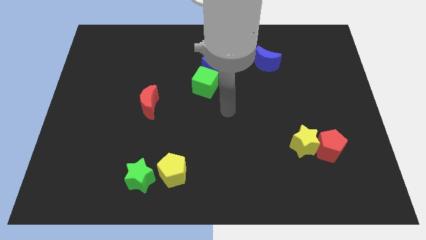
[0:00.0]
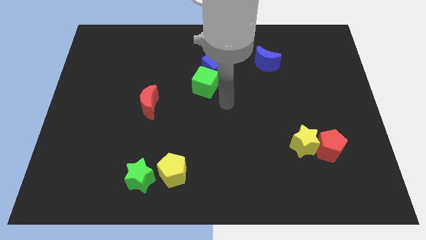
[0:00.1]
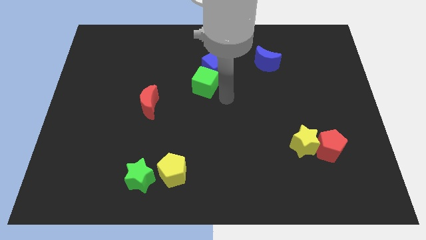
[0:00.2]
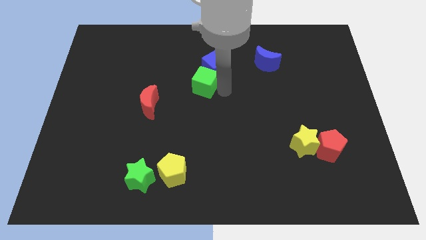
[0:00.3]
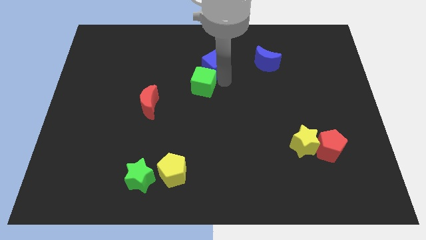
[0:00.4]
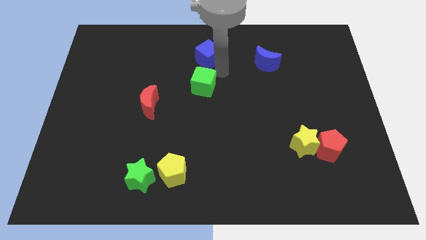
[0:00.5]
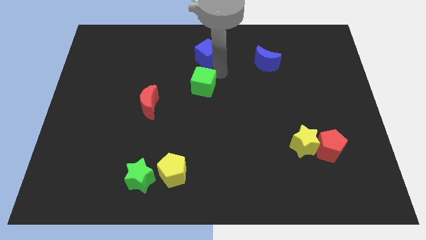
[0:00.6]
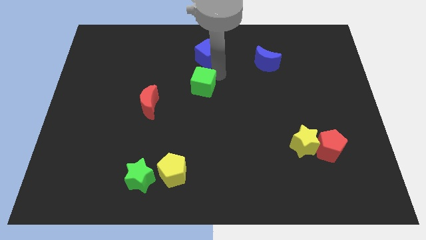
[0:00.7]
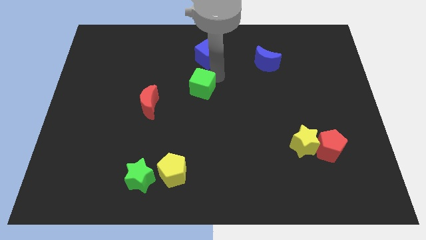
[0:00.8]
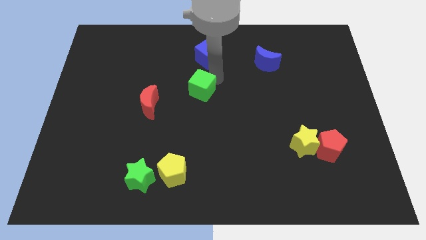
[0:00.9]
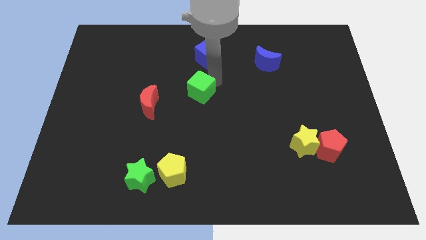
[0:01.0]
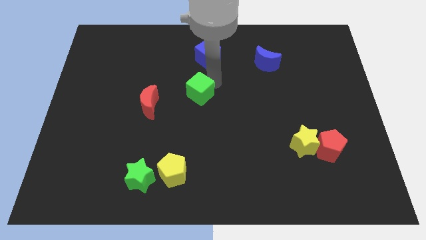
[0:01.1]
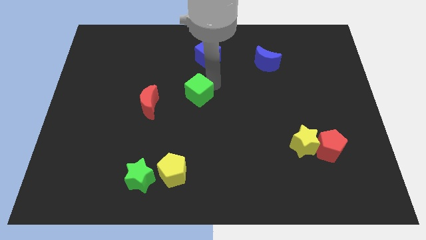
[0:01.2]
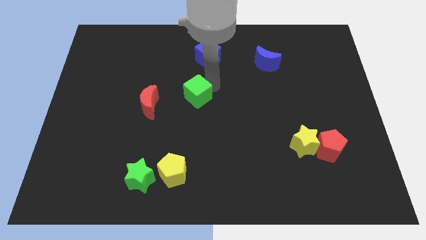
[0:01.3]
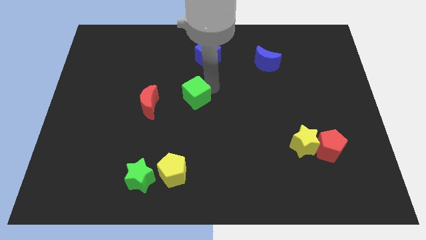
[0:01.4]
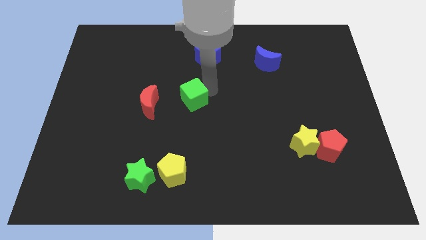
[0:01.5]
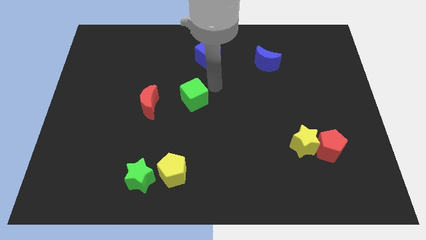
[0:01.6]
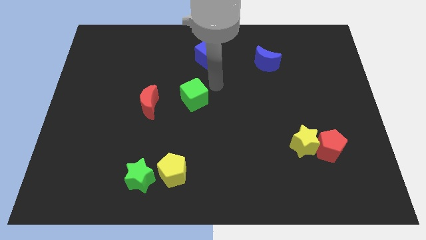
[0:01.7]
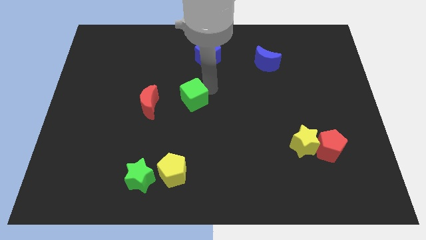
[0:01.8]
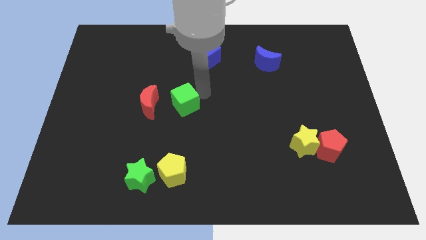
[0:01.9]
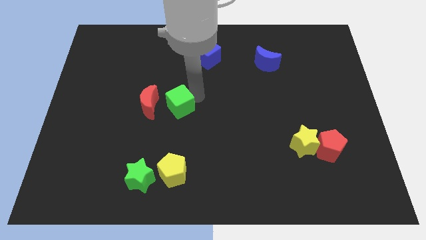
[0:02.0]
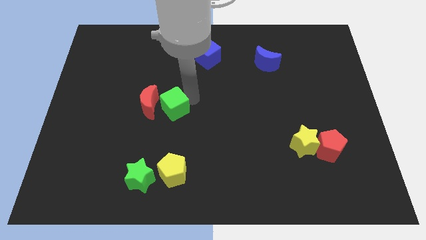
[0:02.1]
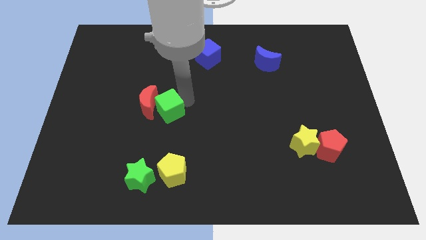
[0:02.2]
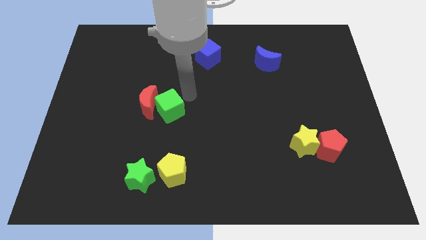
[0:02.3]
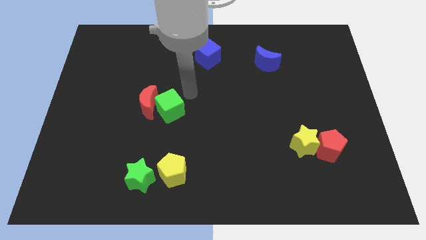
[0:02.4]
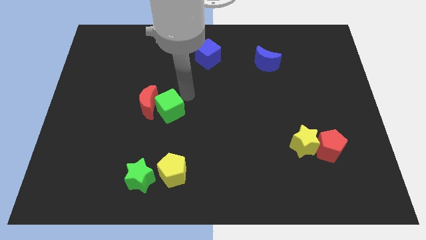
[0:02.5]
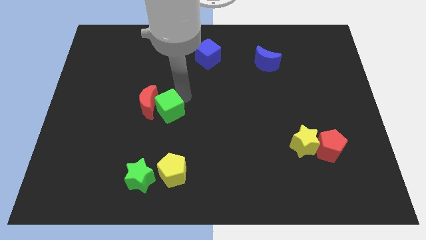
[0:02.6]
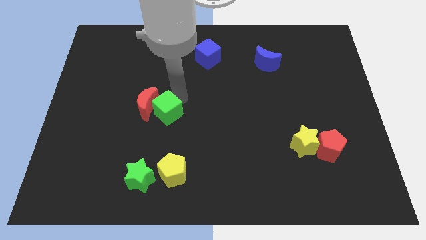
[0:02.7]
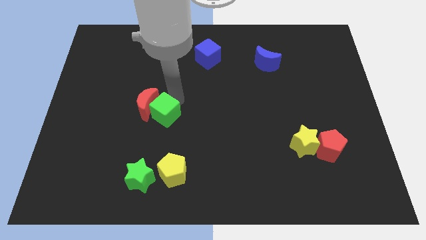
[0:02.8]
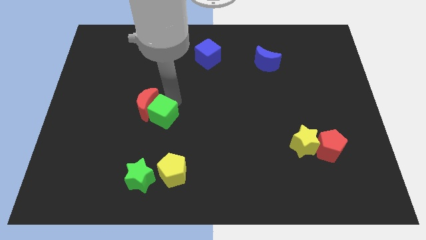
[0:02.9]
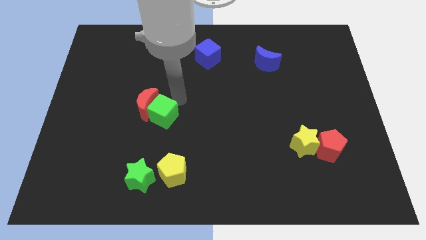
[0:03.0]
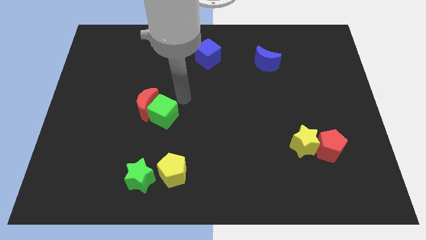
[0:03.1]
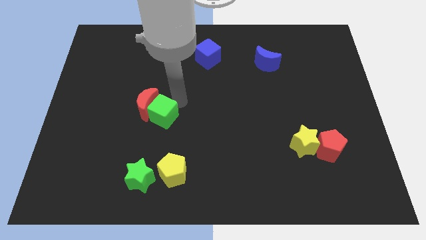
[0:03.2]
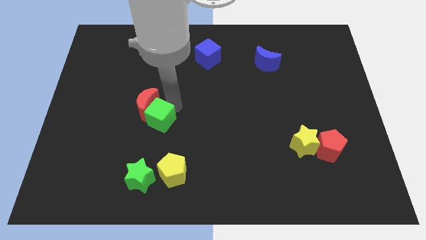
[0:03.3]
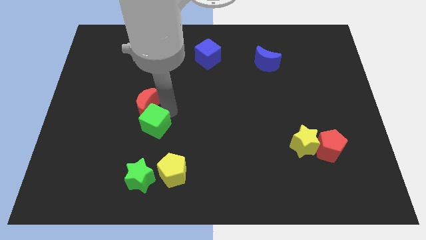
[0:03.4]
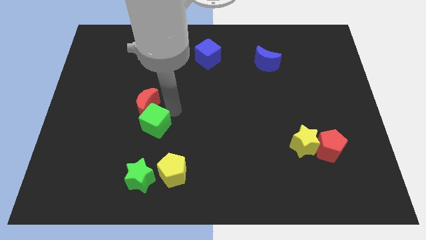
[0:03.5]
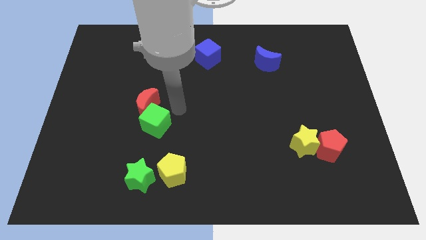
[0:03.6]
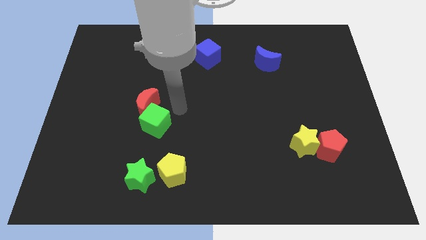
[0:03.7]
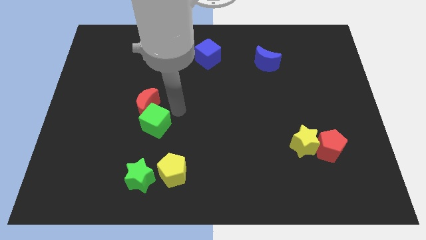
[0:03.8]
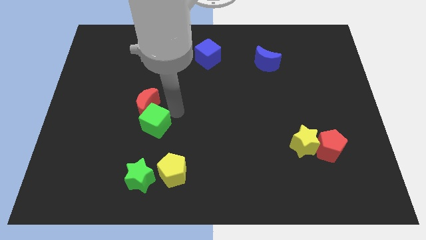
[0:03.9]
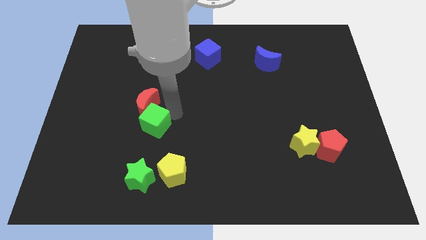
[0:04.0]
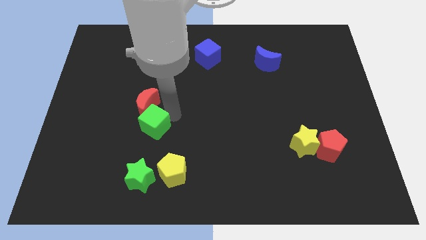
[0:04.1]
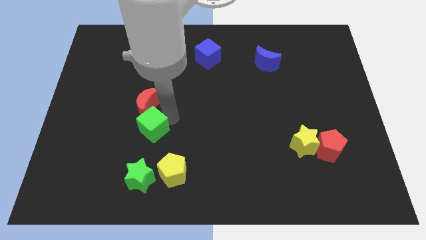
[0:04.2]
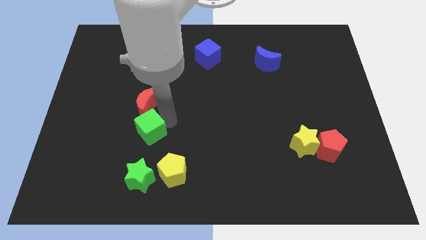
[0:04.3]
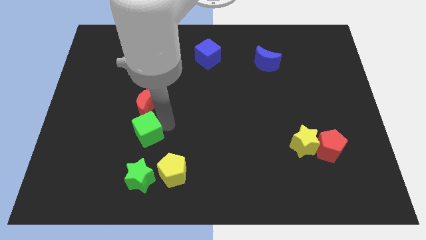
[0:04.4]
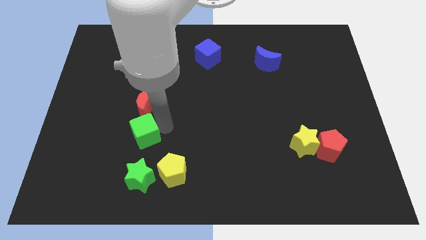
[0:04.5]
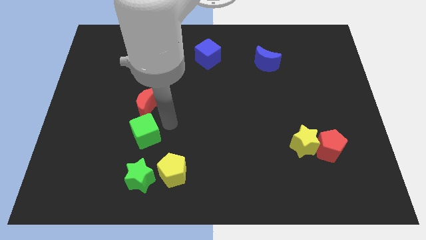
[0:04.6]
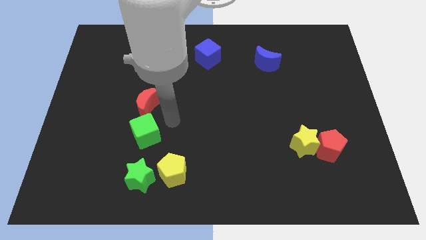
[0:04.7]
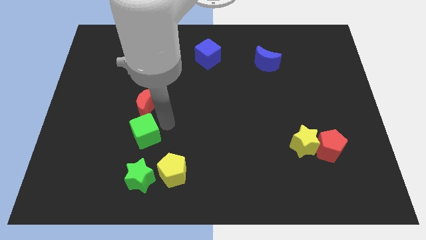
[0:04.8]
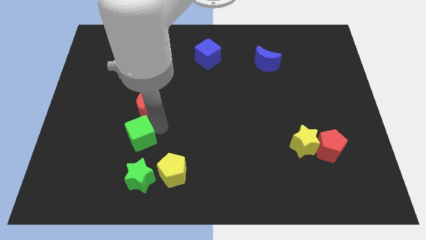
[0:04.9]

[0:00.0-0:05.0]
slide the green cube downwards and then left

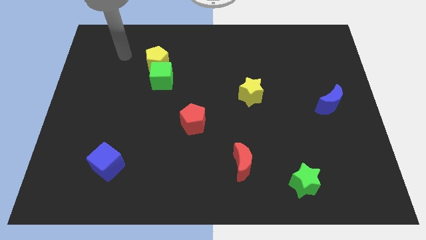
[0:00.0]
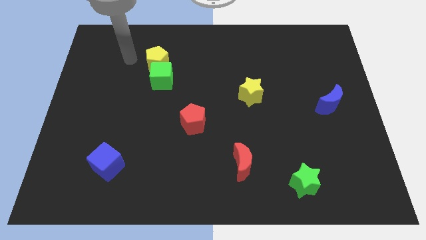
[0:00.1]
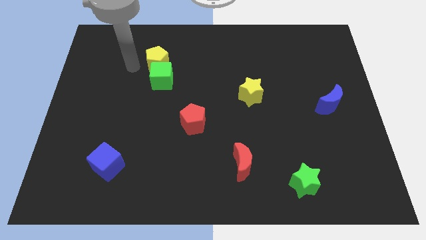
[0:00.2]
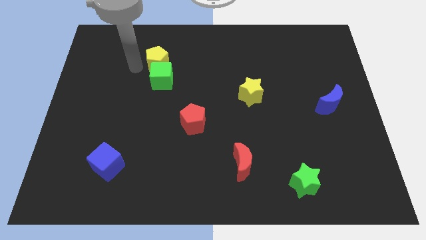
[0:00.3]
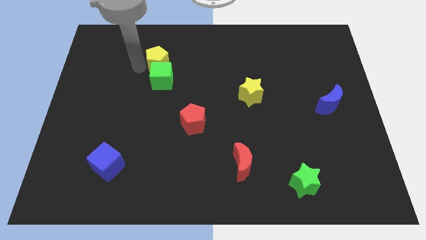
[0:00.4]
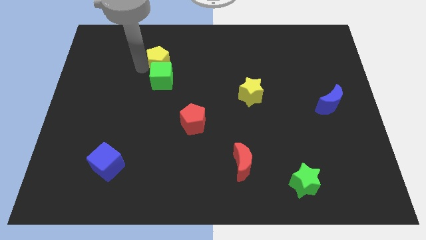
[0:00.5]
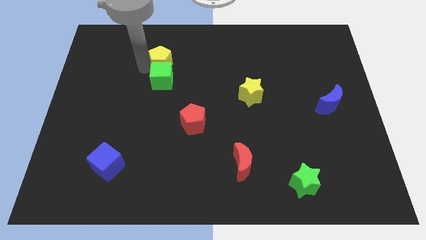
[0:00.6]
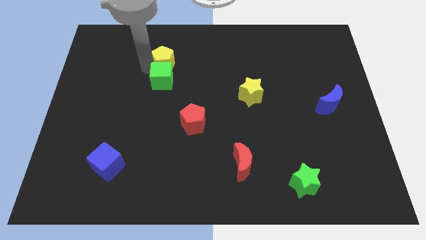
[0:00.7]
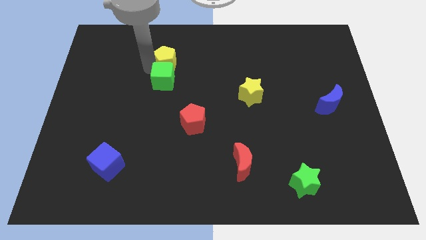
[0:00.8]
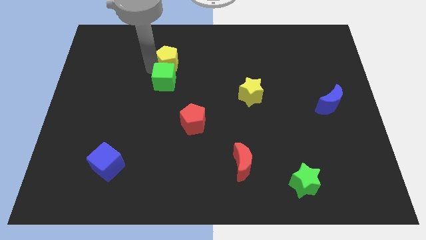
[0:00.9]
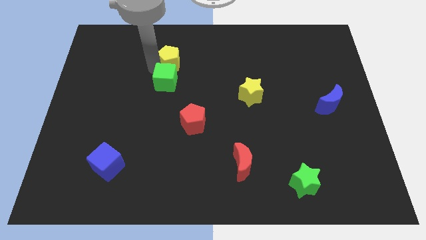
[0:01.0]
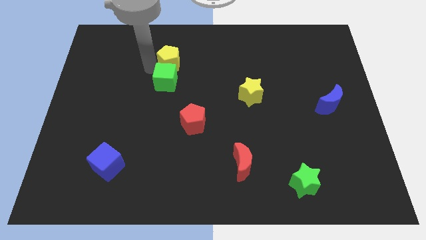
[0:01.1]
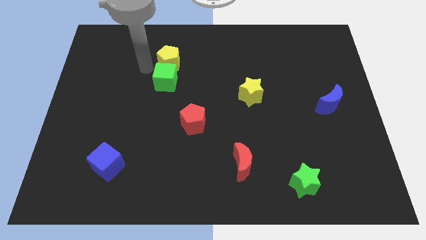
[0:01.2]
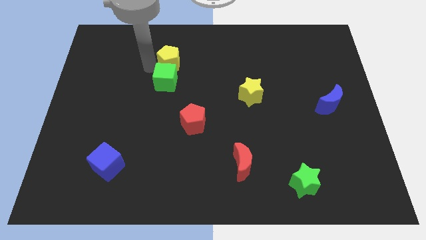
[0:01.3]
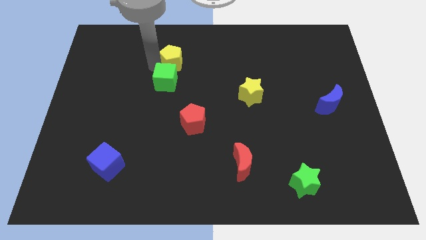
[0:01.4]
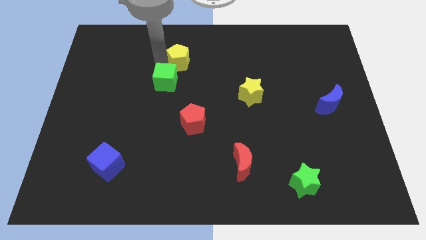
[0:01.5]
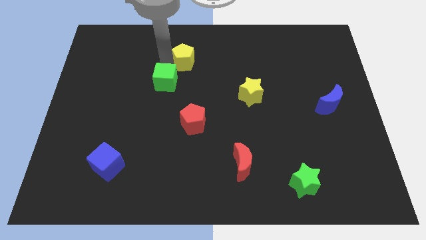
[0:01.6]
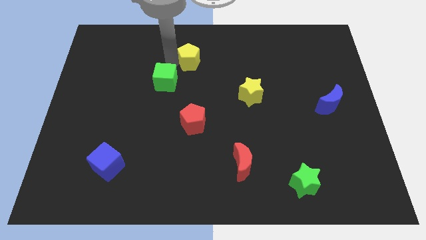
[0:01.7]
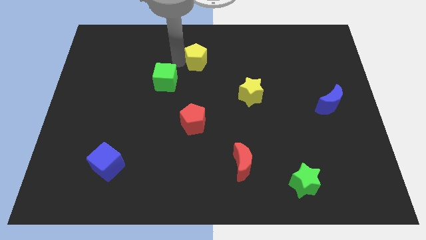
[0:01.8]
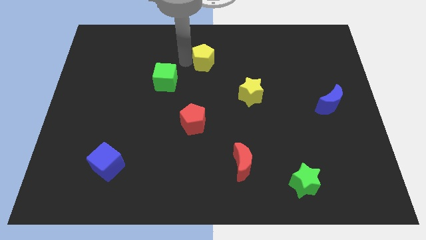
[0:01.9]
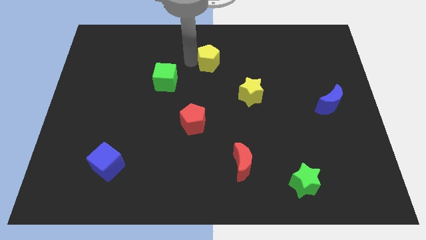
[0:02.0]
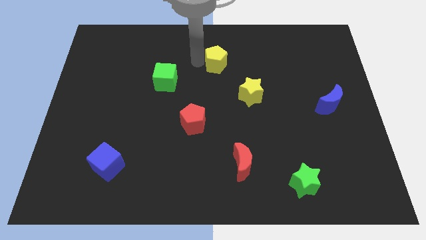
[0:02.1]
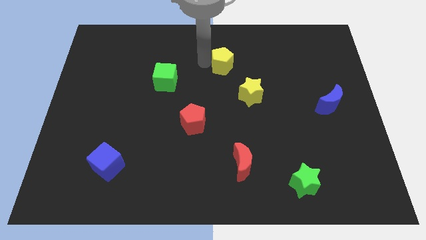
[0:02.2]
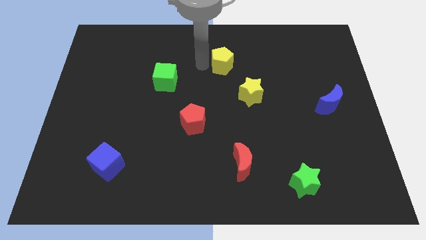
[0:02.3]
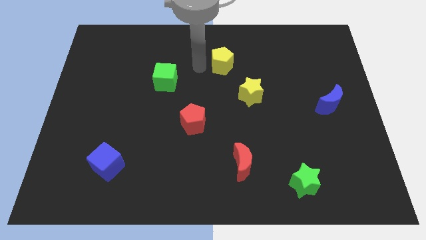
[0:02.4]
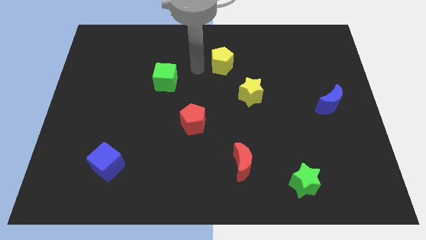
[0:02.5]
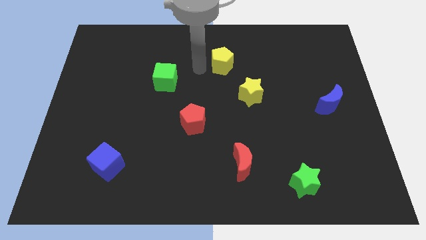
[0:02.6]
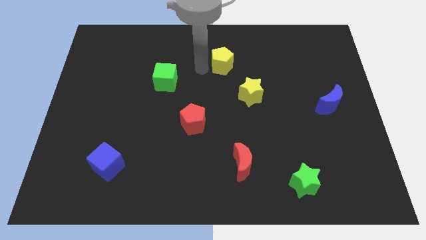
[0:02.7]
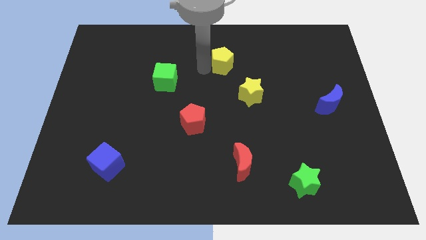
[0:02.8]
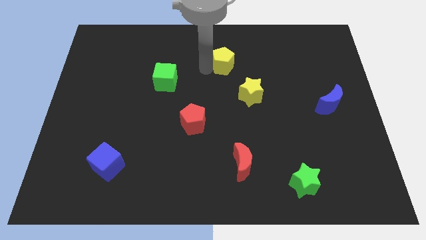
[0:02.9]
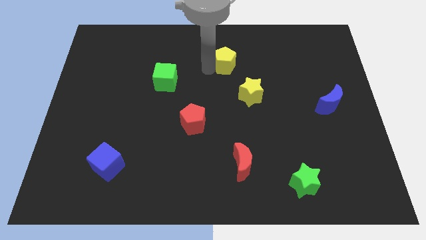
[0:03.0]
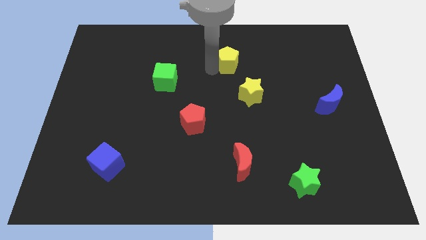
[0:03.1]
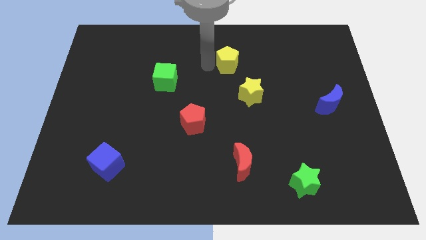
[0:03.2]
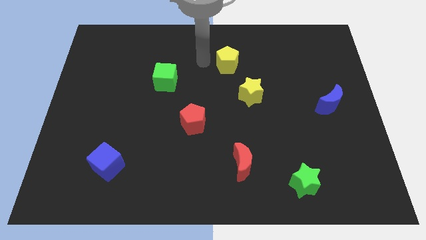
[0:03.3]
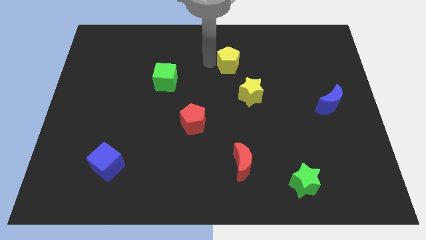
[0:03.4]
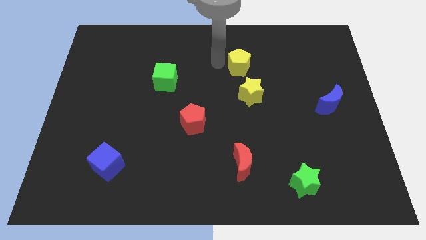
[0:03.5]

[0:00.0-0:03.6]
push the yellow pentagon to the right
